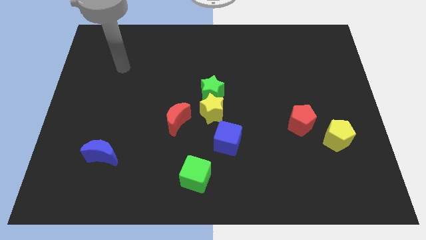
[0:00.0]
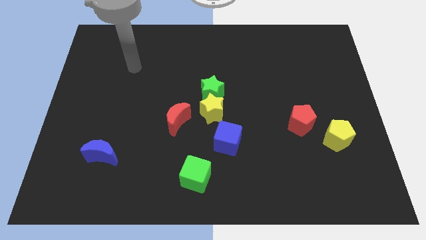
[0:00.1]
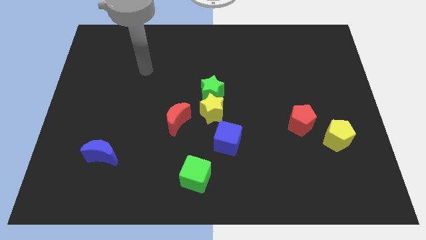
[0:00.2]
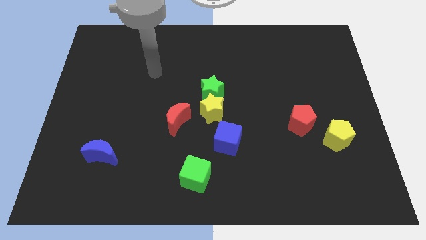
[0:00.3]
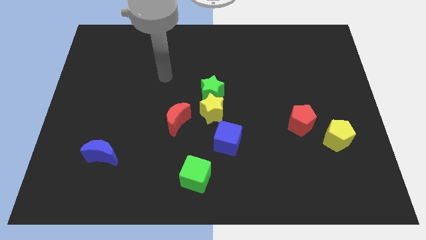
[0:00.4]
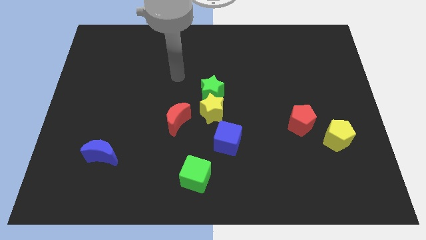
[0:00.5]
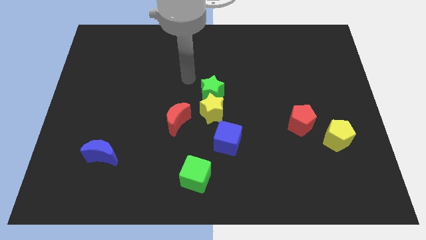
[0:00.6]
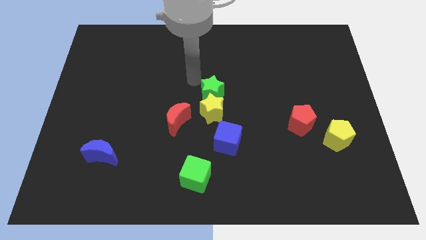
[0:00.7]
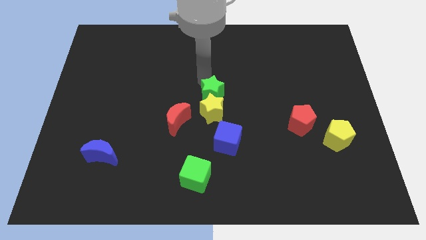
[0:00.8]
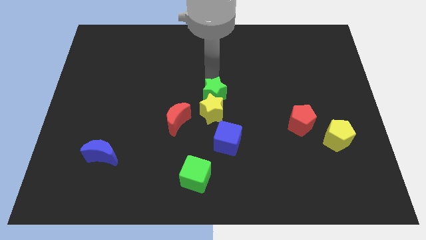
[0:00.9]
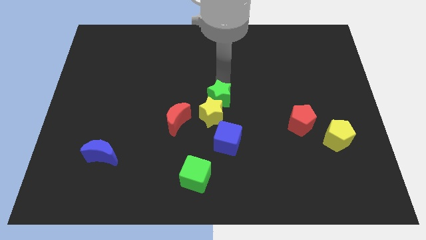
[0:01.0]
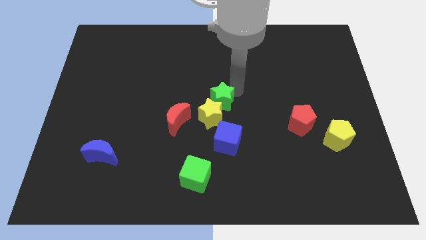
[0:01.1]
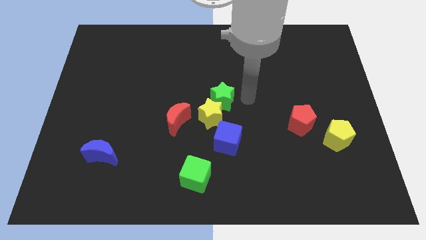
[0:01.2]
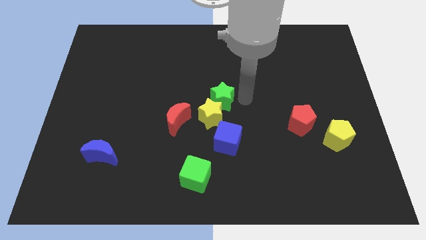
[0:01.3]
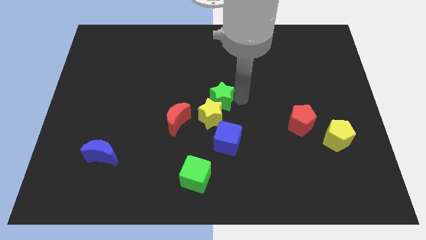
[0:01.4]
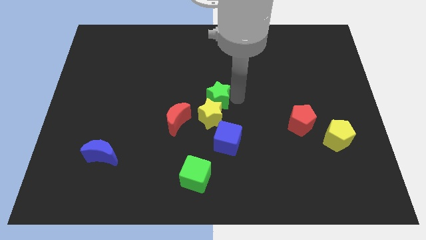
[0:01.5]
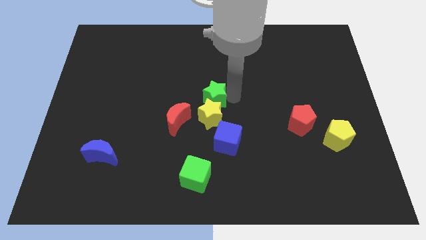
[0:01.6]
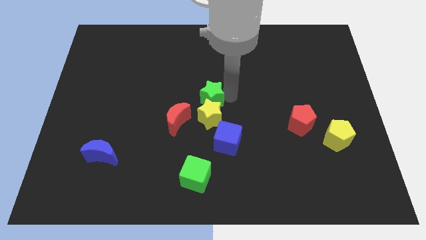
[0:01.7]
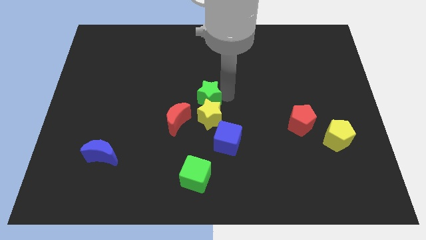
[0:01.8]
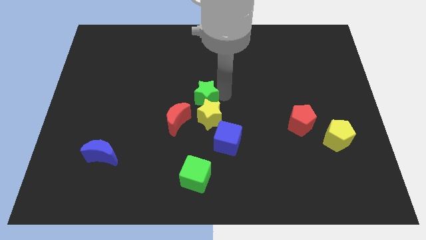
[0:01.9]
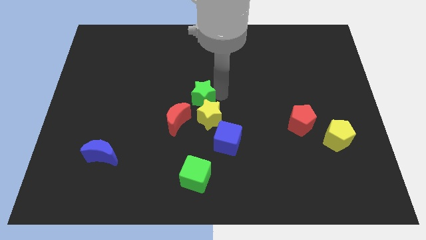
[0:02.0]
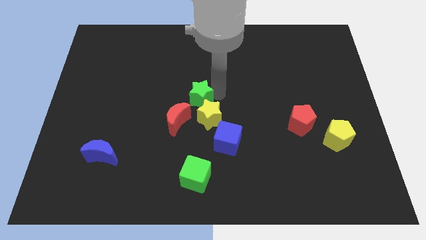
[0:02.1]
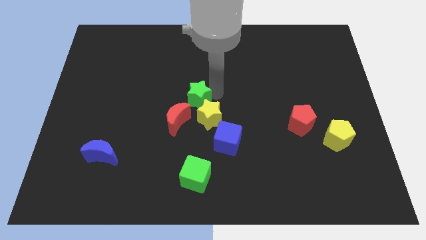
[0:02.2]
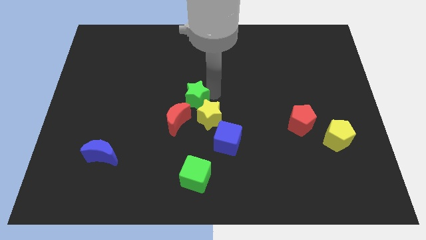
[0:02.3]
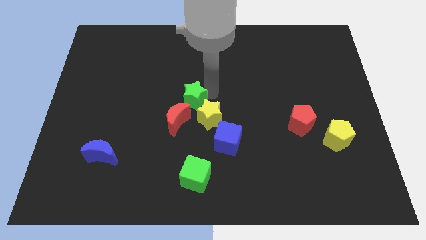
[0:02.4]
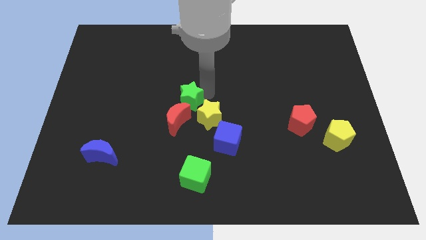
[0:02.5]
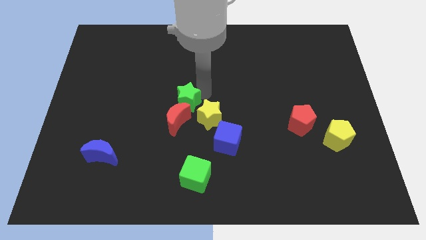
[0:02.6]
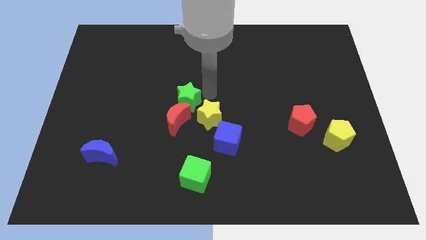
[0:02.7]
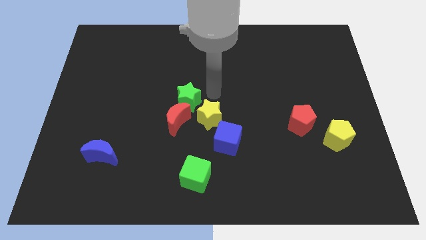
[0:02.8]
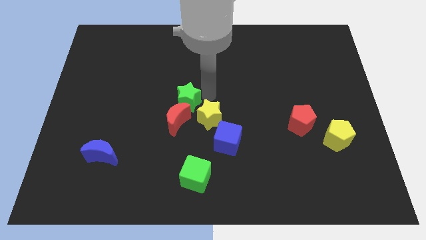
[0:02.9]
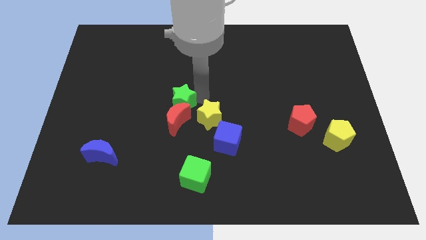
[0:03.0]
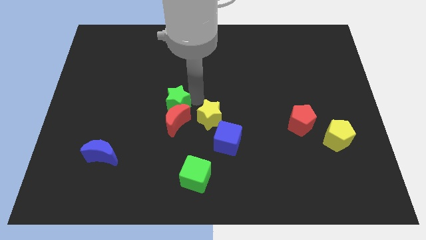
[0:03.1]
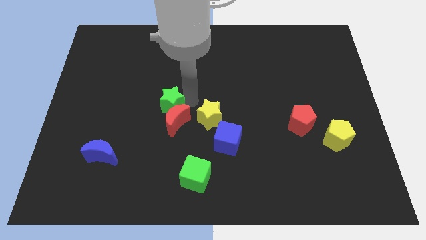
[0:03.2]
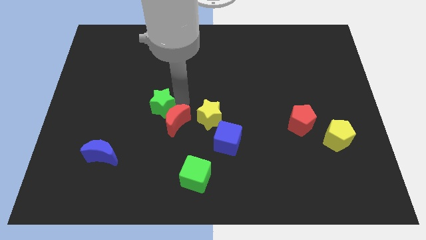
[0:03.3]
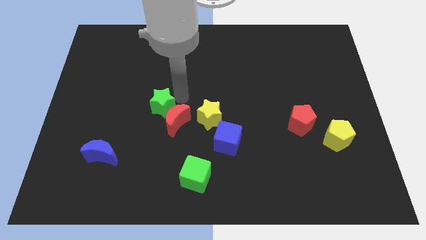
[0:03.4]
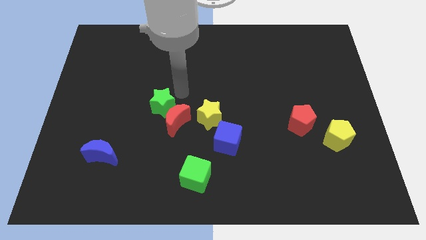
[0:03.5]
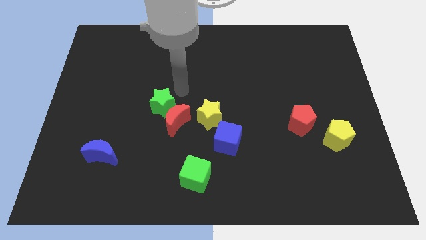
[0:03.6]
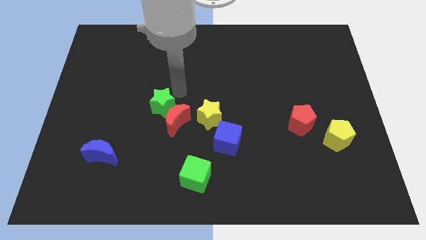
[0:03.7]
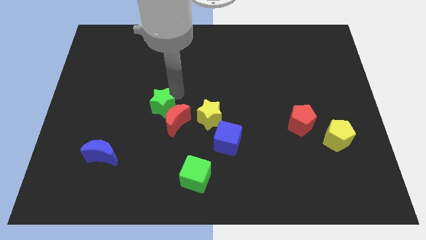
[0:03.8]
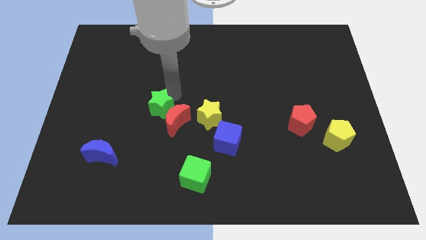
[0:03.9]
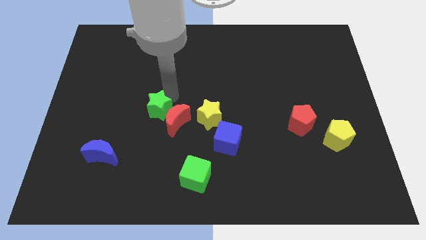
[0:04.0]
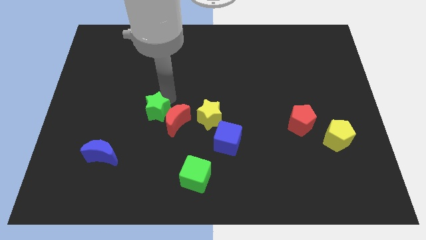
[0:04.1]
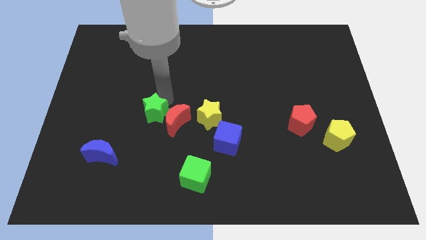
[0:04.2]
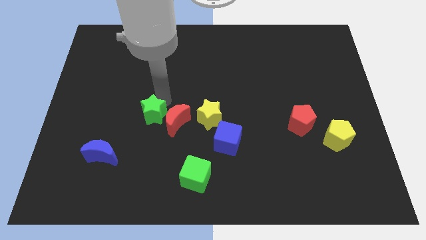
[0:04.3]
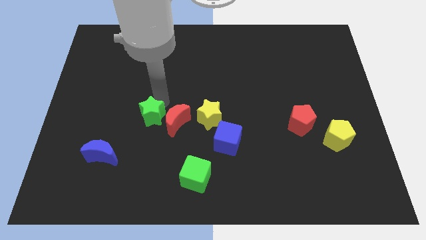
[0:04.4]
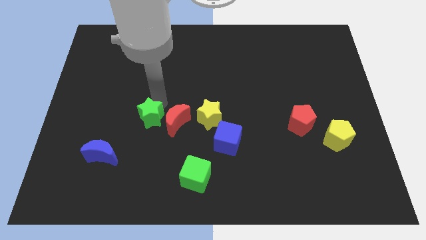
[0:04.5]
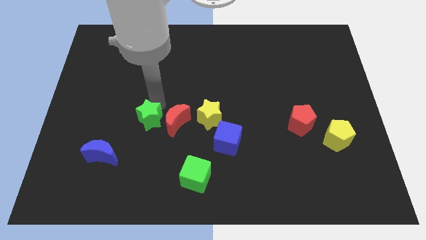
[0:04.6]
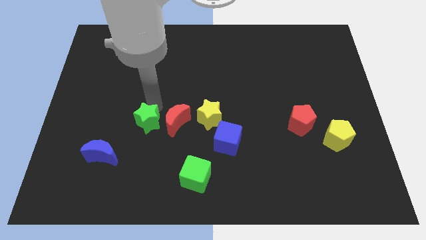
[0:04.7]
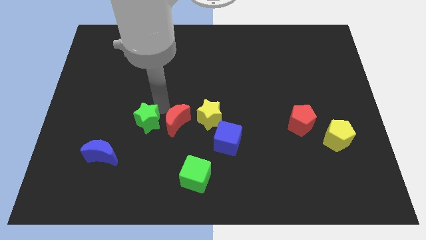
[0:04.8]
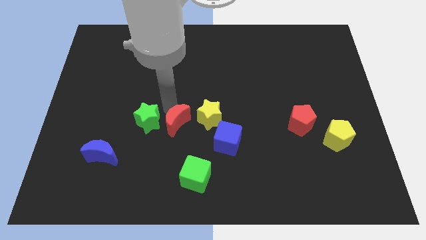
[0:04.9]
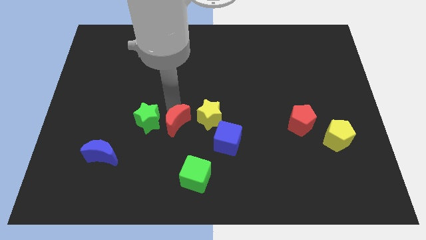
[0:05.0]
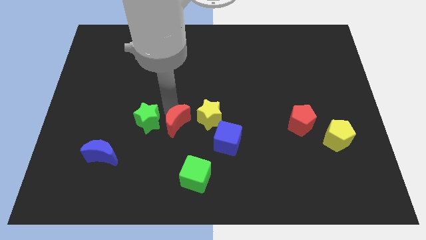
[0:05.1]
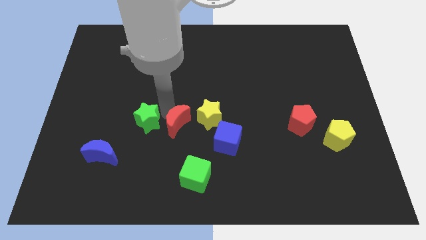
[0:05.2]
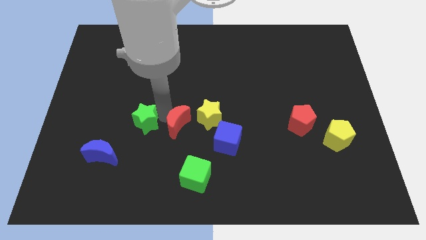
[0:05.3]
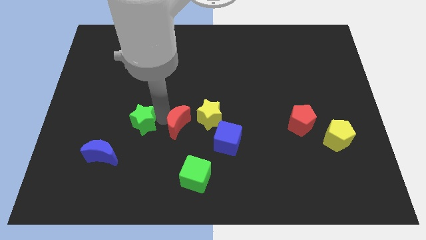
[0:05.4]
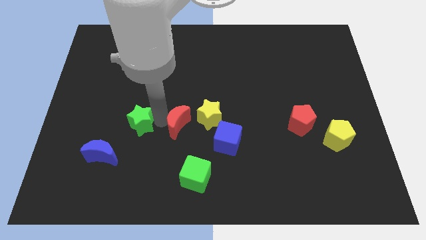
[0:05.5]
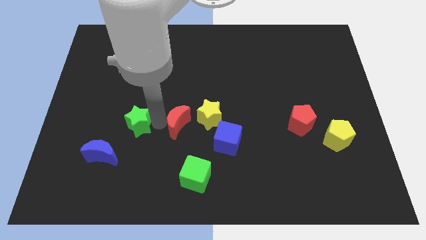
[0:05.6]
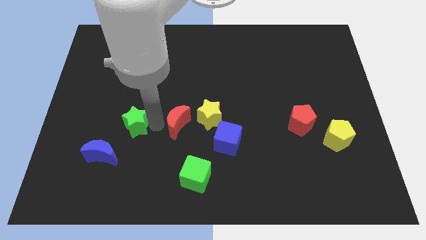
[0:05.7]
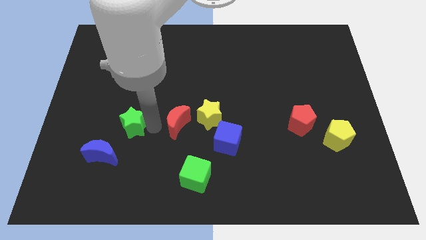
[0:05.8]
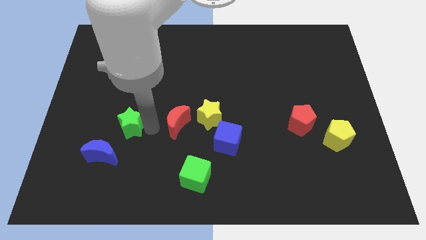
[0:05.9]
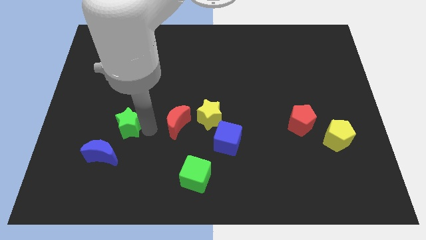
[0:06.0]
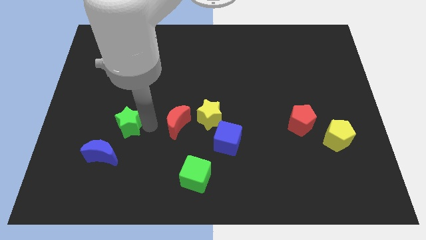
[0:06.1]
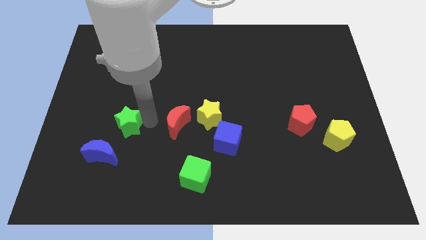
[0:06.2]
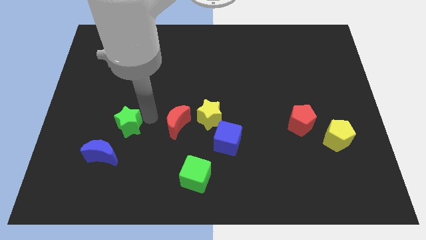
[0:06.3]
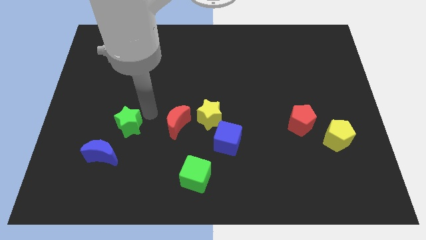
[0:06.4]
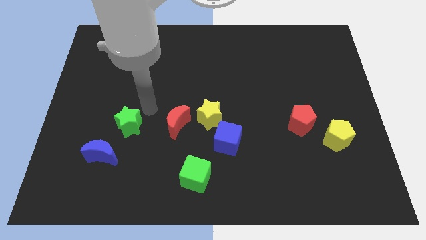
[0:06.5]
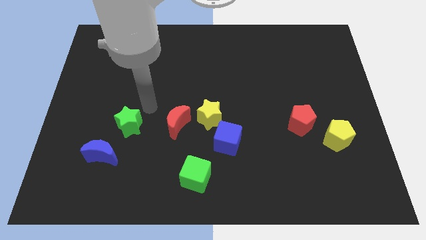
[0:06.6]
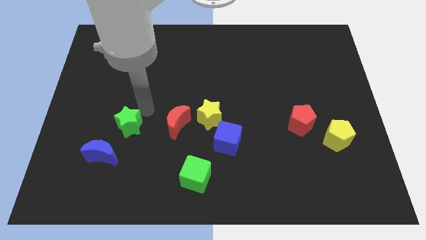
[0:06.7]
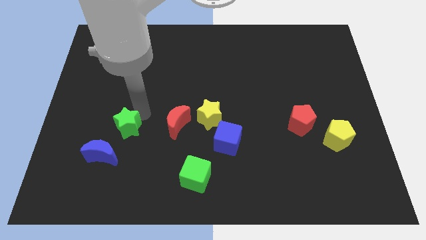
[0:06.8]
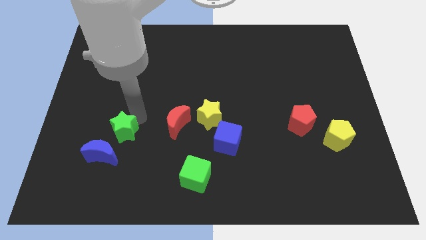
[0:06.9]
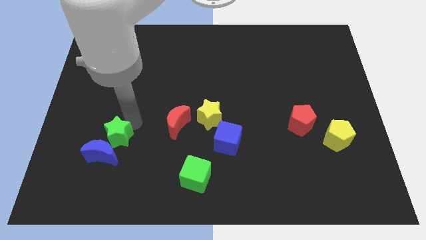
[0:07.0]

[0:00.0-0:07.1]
slide the green star to the blue moon

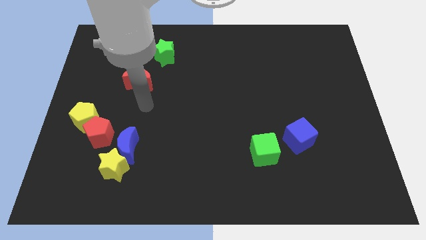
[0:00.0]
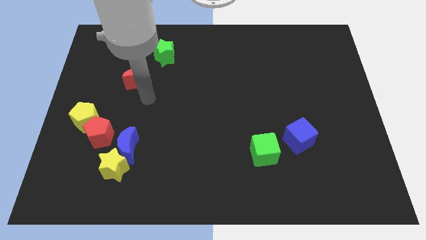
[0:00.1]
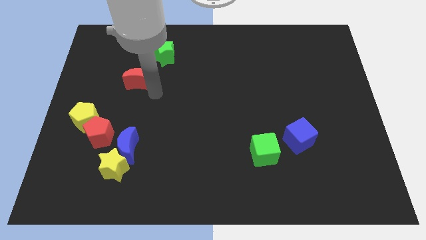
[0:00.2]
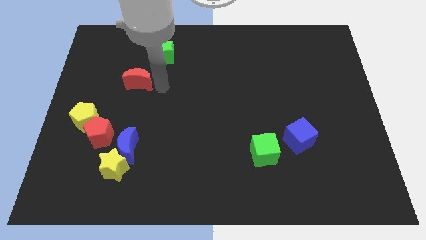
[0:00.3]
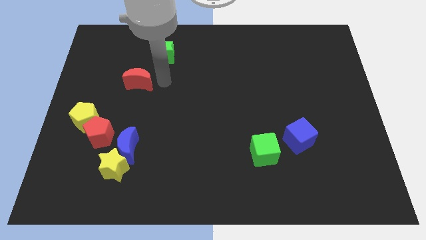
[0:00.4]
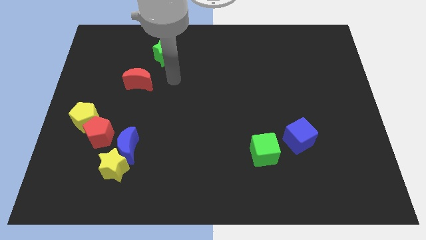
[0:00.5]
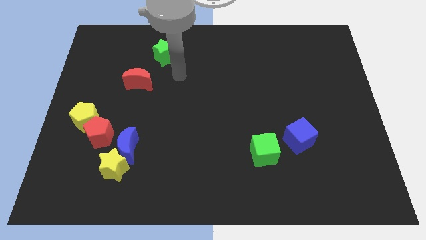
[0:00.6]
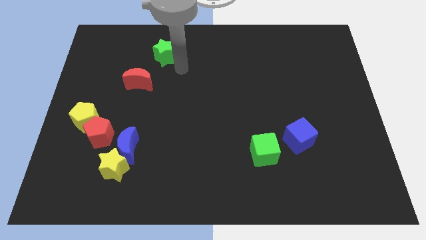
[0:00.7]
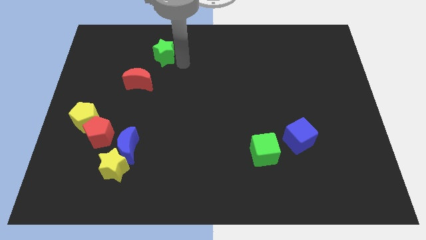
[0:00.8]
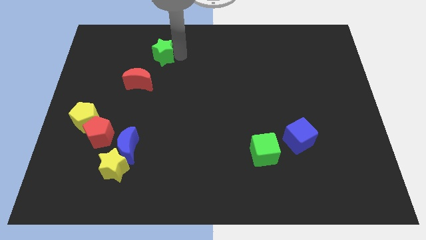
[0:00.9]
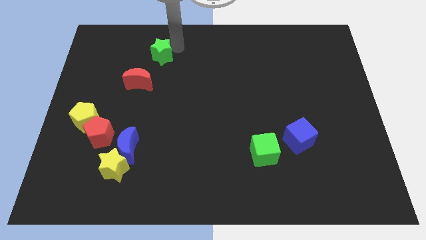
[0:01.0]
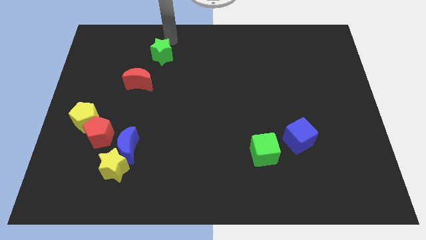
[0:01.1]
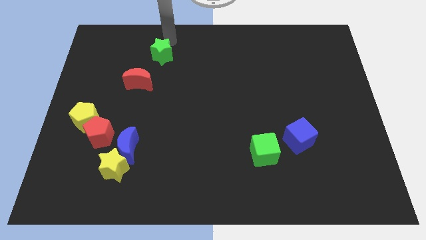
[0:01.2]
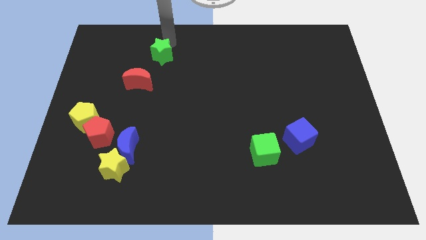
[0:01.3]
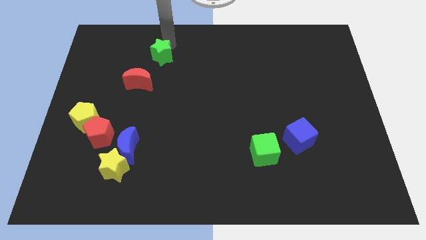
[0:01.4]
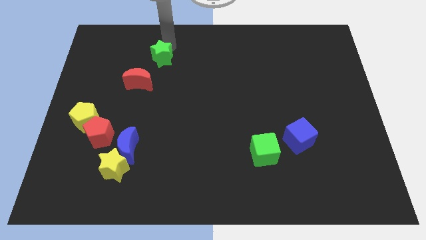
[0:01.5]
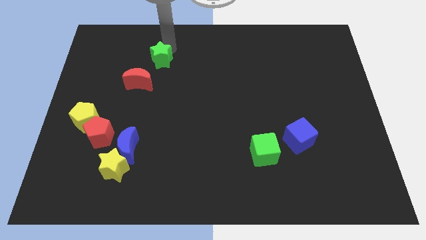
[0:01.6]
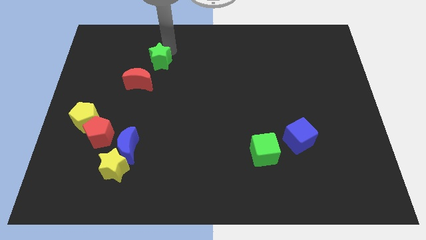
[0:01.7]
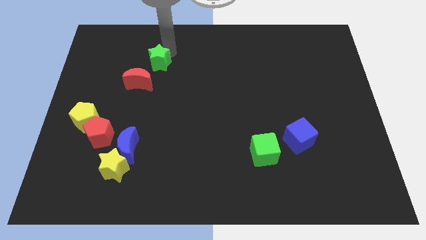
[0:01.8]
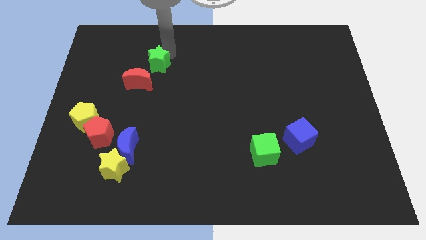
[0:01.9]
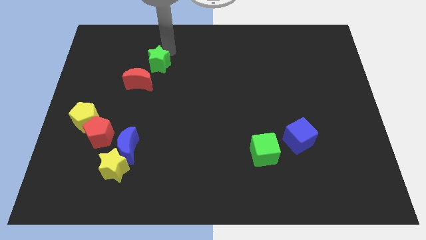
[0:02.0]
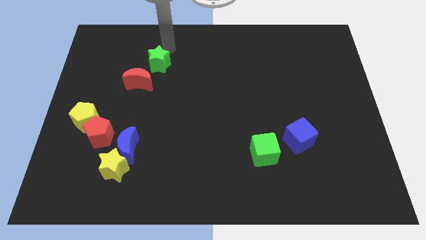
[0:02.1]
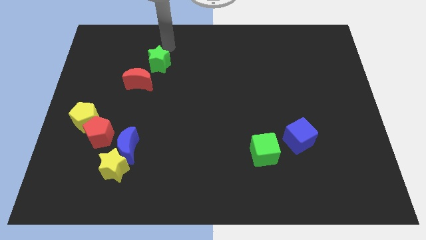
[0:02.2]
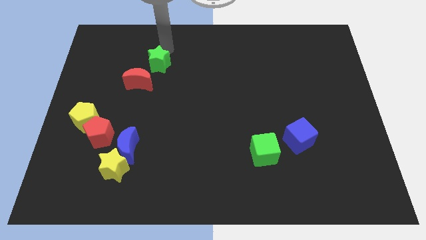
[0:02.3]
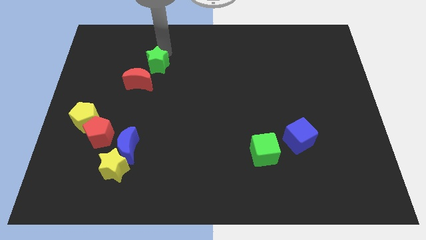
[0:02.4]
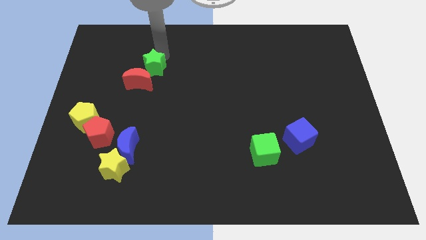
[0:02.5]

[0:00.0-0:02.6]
move the green star to the red moon
